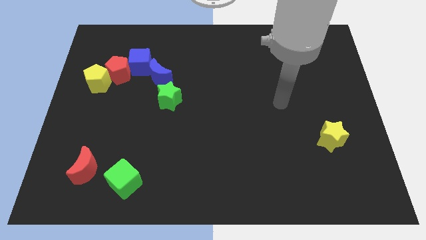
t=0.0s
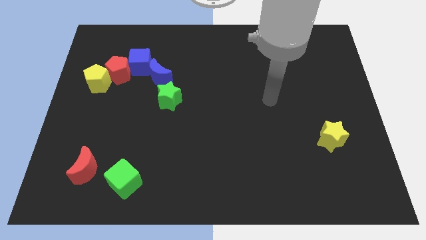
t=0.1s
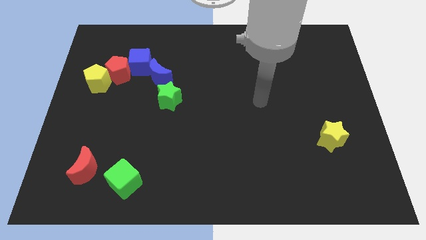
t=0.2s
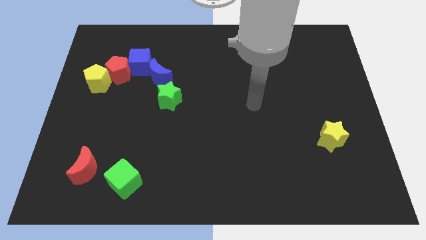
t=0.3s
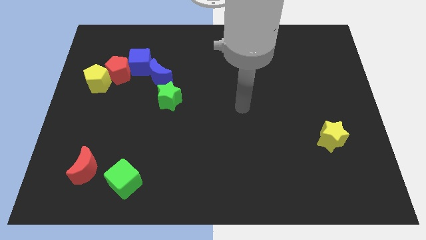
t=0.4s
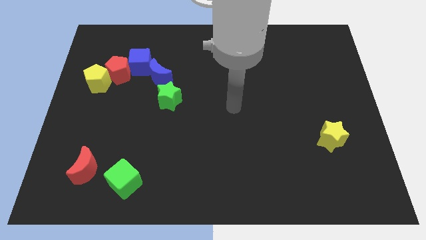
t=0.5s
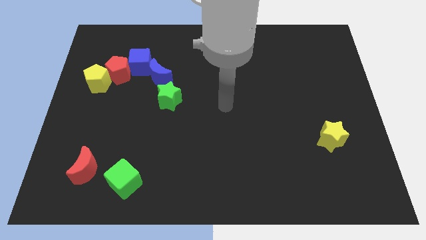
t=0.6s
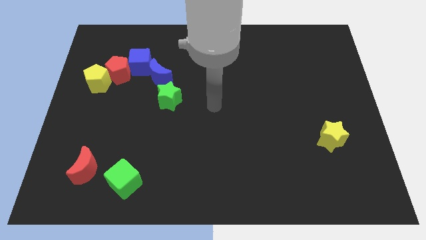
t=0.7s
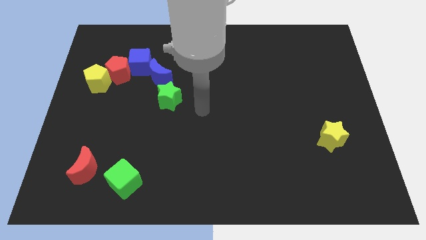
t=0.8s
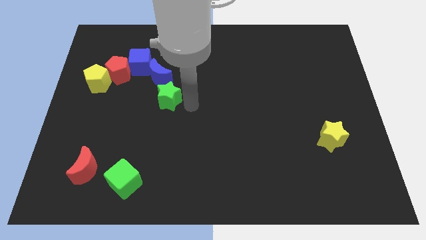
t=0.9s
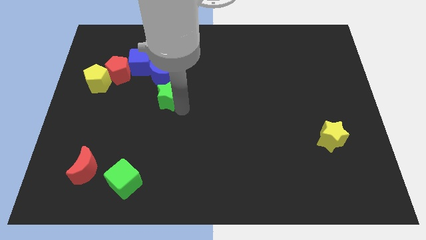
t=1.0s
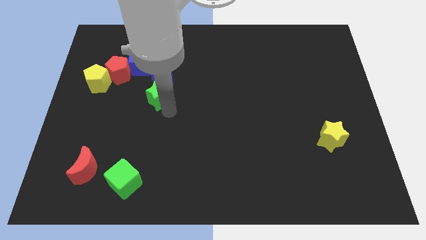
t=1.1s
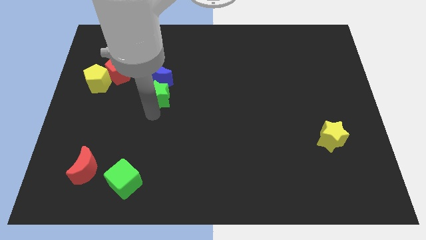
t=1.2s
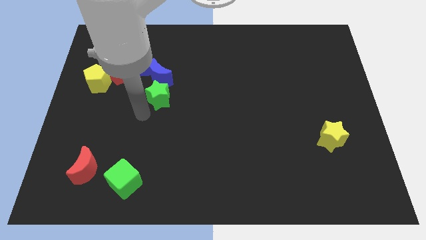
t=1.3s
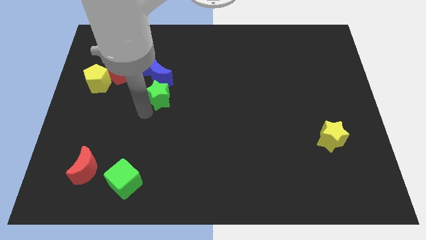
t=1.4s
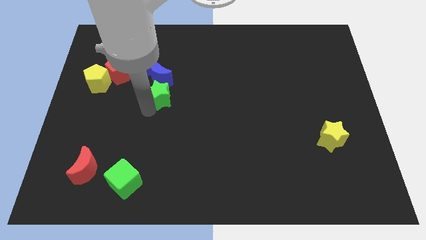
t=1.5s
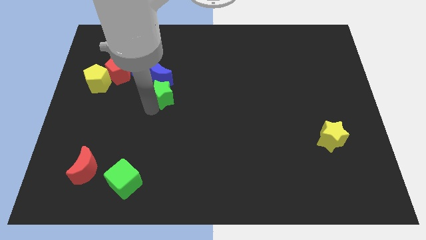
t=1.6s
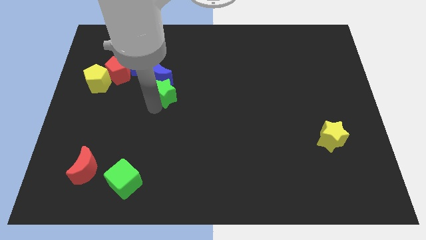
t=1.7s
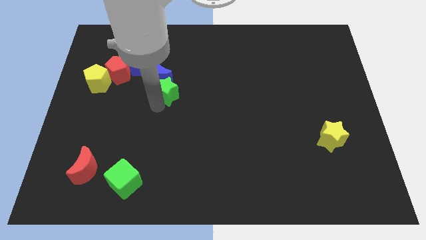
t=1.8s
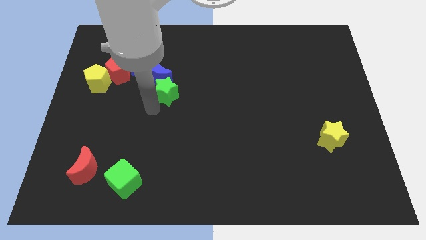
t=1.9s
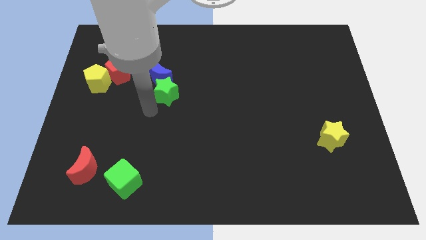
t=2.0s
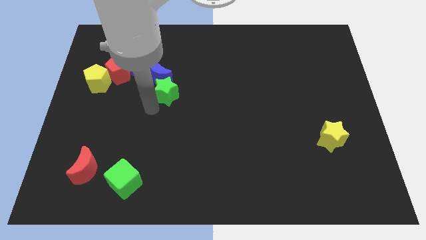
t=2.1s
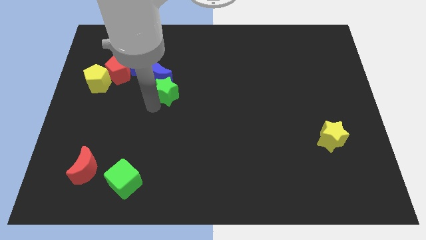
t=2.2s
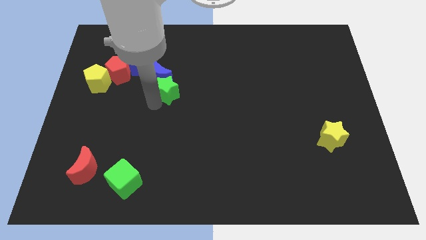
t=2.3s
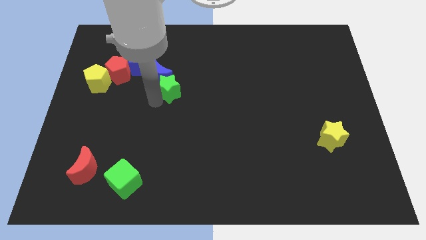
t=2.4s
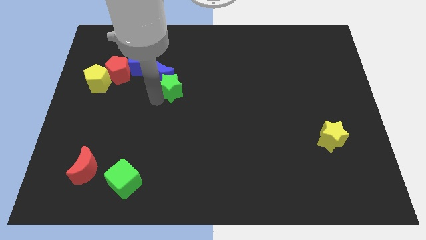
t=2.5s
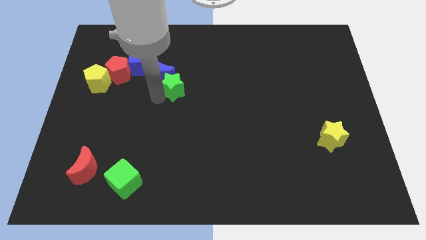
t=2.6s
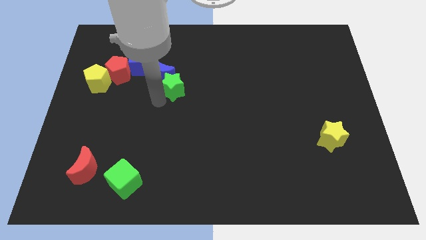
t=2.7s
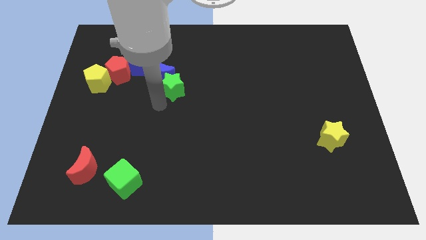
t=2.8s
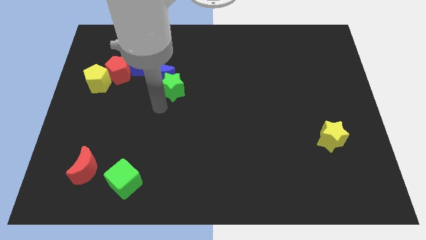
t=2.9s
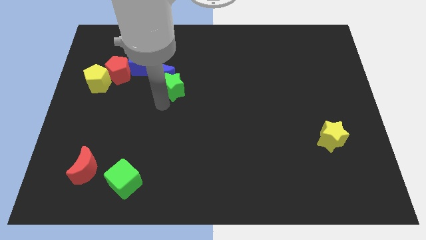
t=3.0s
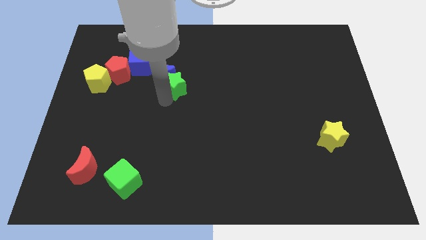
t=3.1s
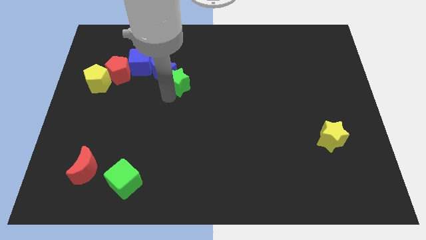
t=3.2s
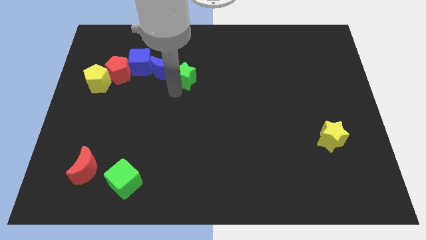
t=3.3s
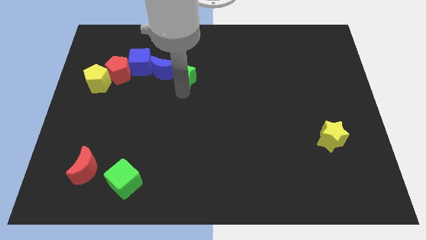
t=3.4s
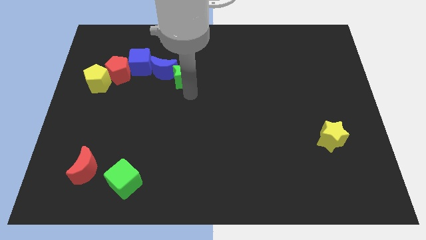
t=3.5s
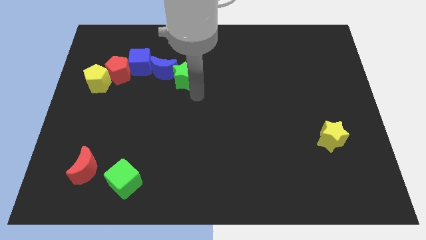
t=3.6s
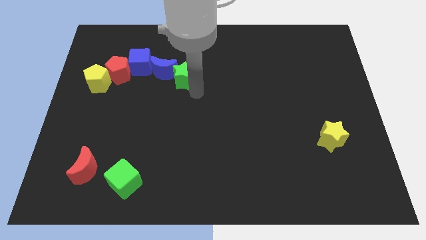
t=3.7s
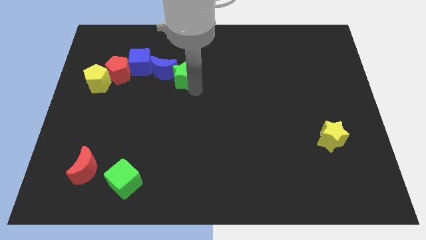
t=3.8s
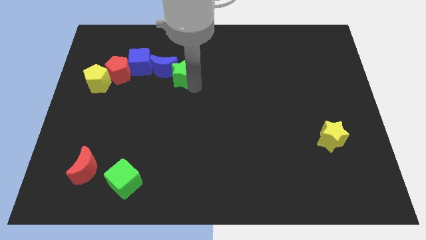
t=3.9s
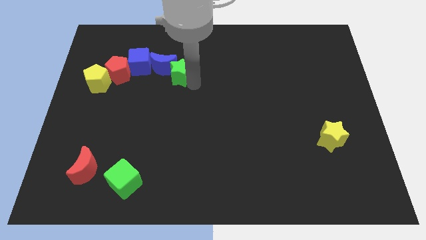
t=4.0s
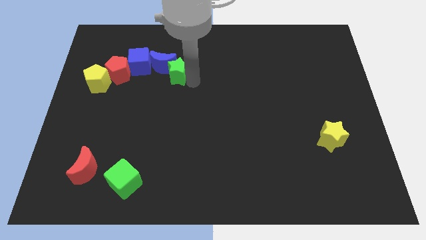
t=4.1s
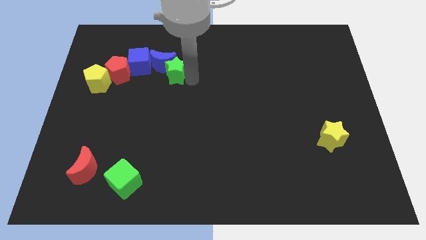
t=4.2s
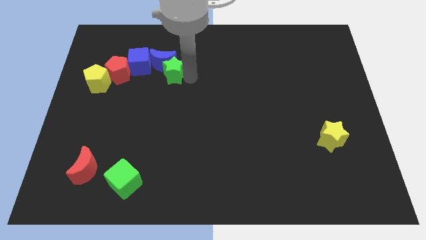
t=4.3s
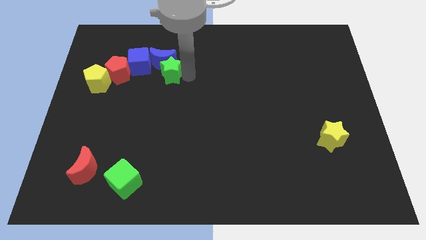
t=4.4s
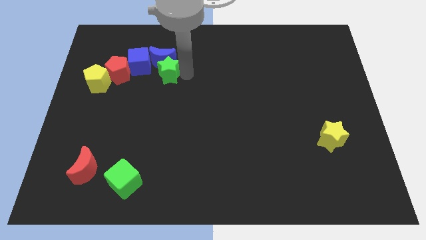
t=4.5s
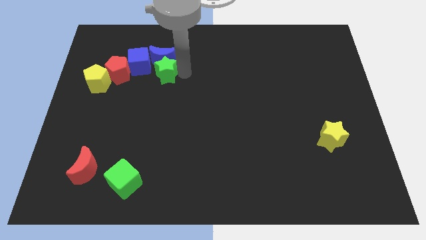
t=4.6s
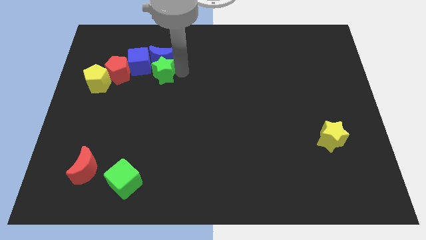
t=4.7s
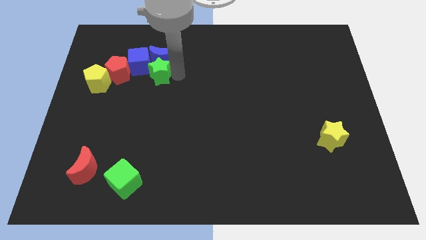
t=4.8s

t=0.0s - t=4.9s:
slide the green star up and left slightly

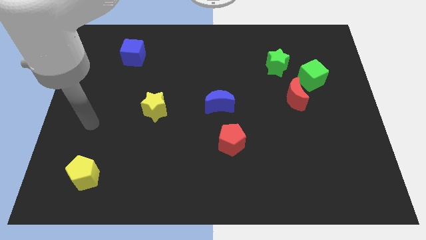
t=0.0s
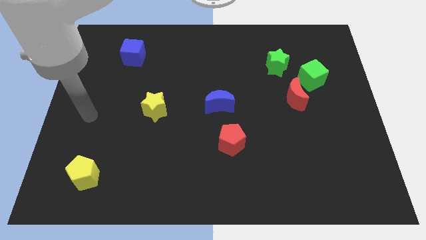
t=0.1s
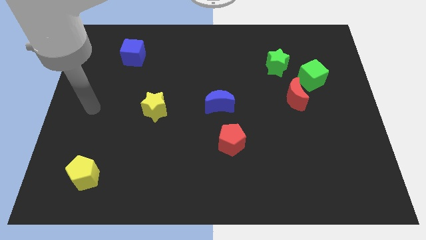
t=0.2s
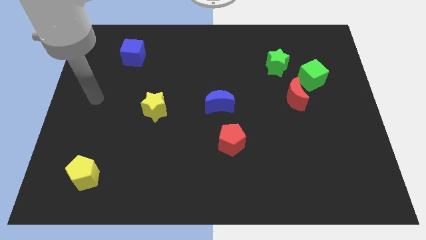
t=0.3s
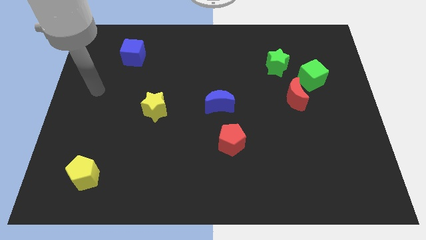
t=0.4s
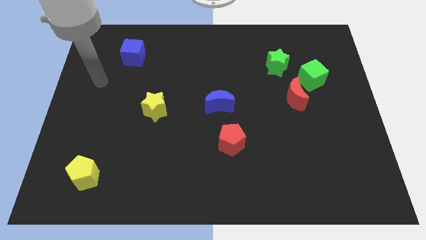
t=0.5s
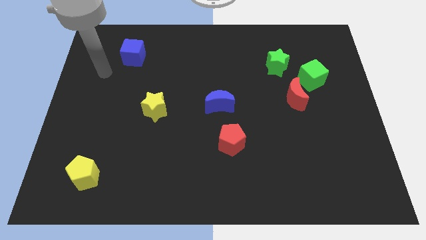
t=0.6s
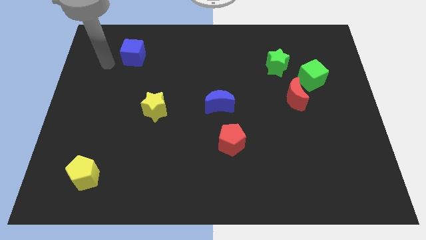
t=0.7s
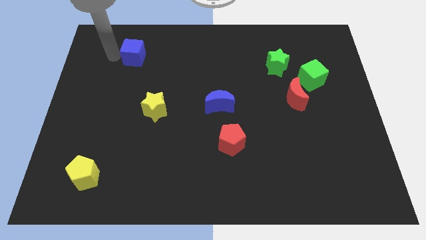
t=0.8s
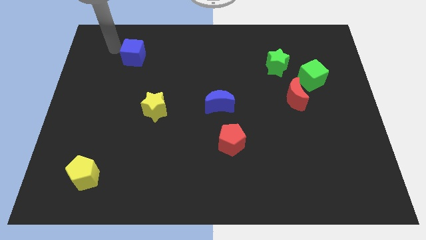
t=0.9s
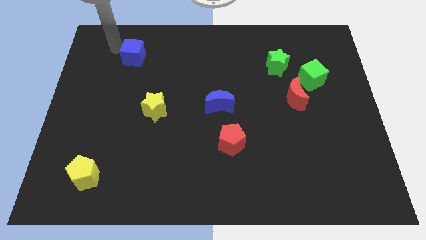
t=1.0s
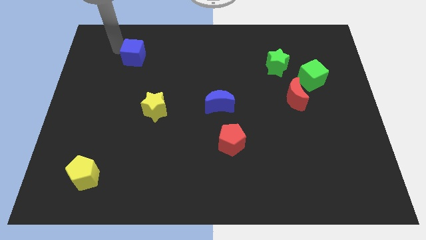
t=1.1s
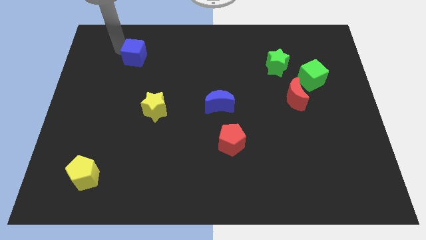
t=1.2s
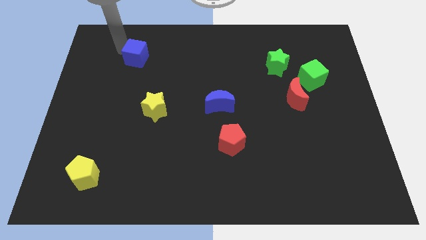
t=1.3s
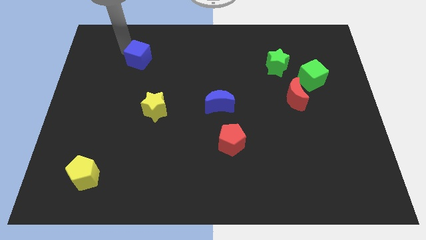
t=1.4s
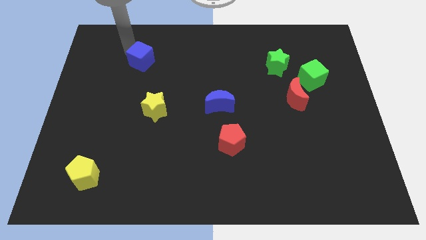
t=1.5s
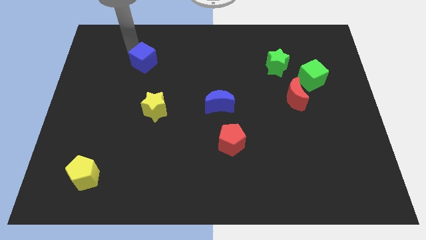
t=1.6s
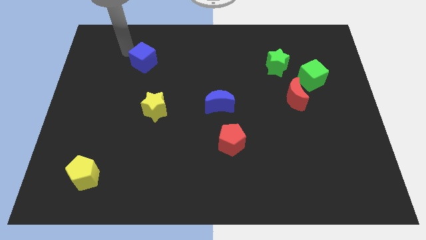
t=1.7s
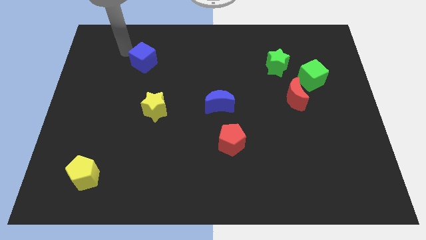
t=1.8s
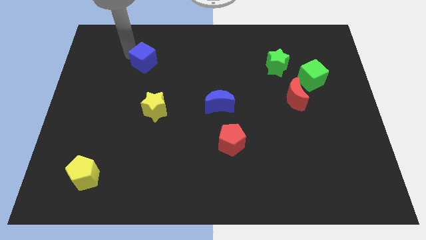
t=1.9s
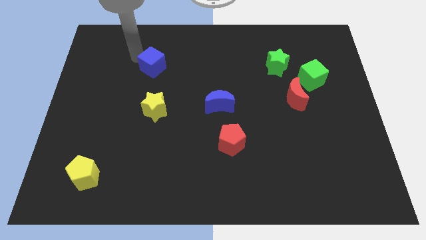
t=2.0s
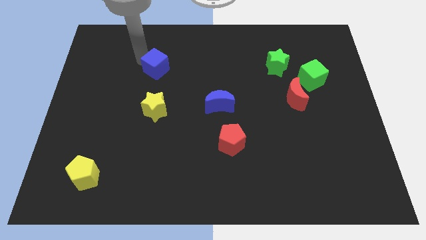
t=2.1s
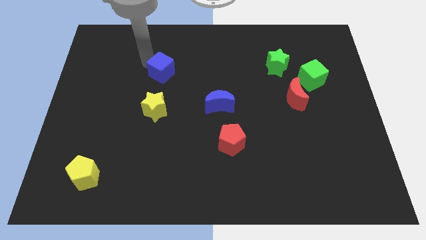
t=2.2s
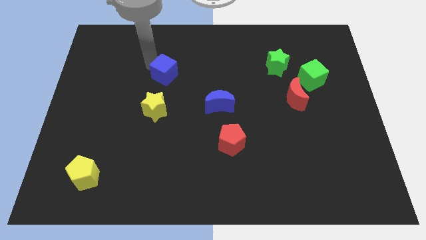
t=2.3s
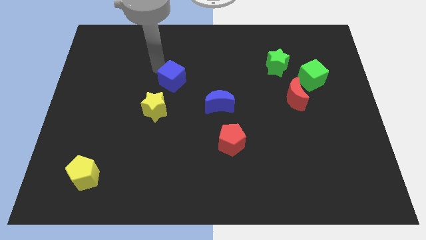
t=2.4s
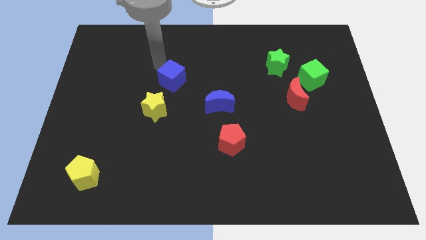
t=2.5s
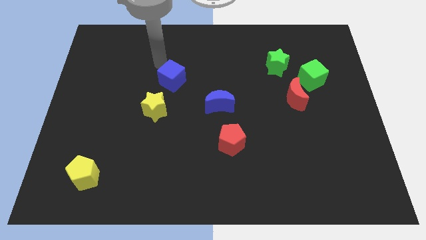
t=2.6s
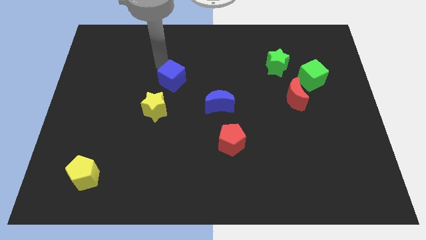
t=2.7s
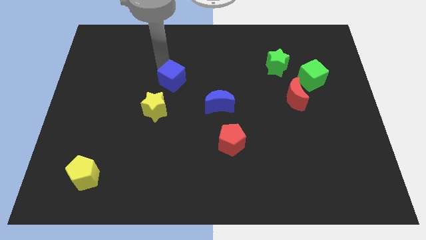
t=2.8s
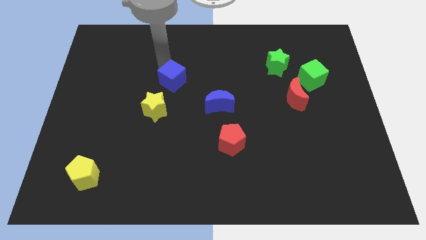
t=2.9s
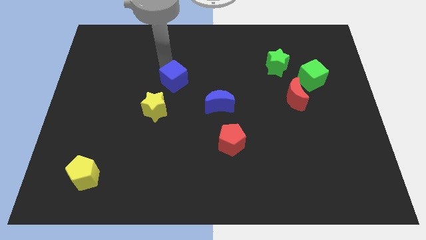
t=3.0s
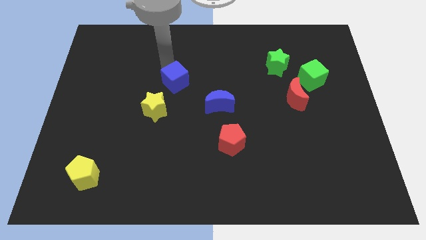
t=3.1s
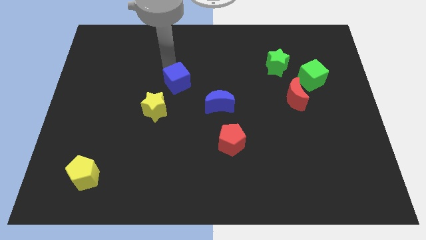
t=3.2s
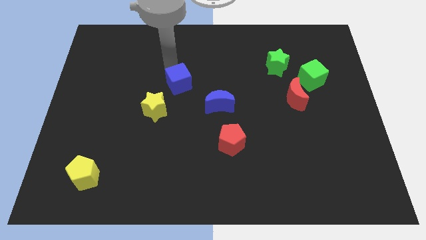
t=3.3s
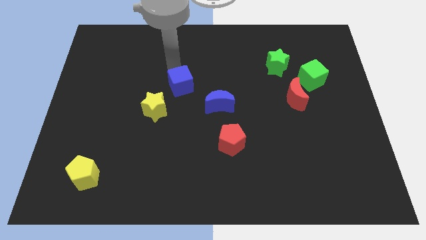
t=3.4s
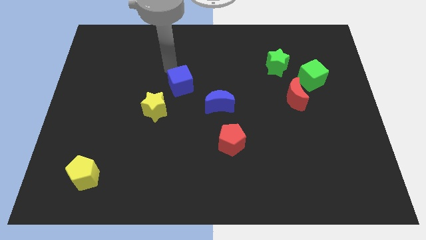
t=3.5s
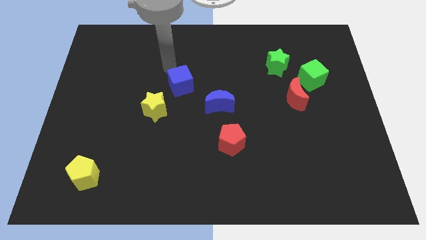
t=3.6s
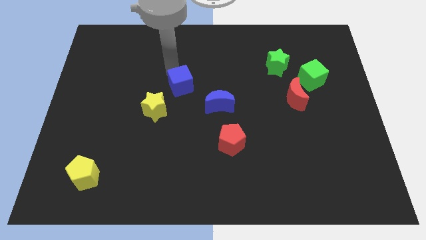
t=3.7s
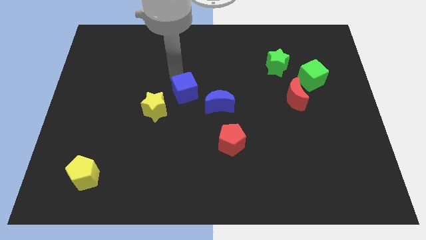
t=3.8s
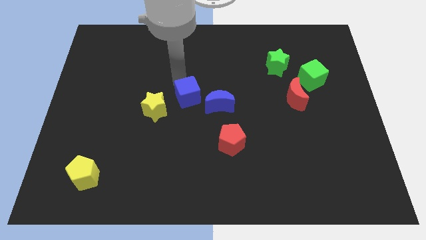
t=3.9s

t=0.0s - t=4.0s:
push the blue cube down and then to the right
